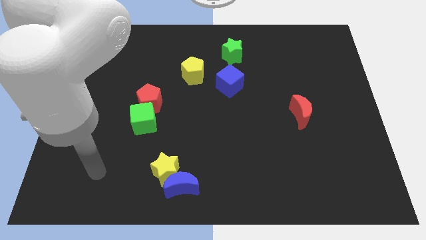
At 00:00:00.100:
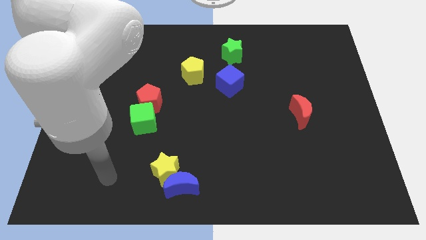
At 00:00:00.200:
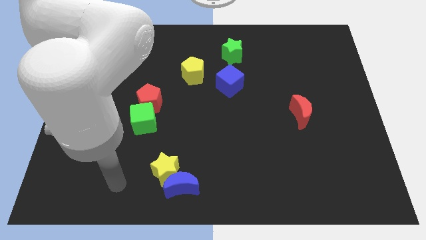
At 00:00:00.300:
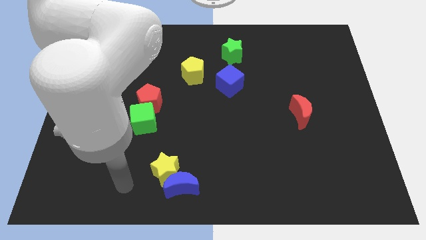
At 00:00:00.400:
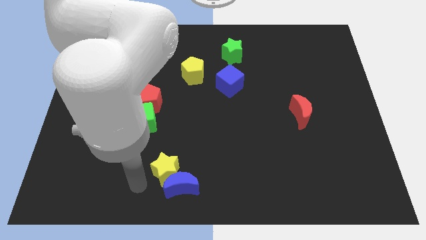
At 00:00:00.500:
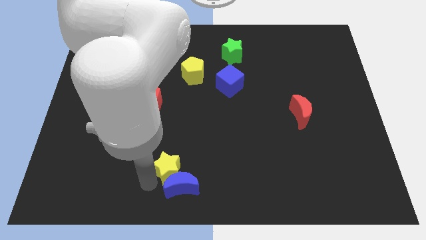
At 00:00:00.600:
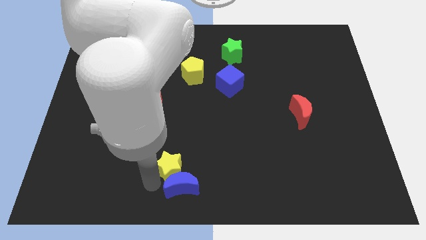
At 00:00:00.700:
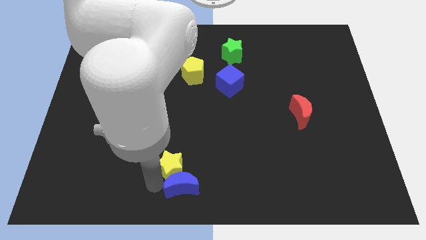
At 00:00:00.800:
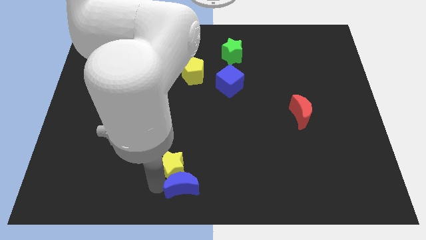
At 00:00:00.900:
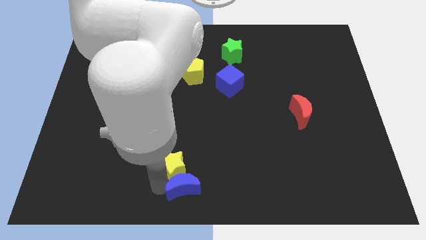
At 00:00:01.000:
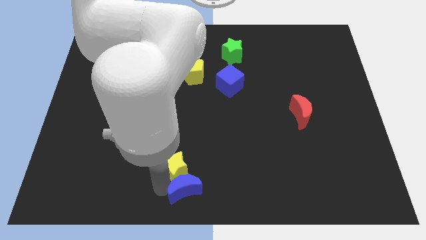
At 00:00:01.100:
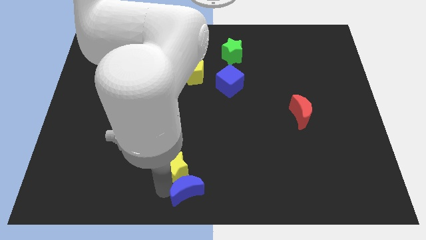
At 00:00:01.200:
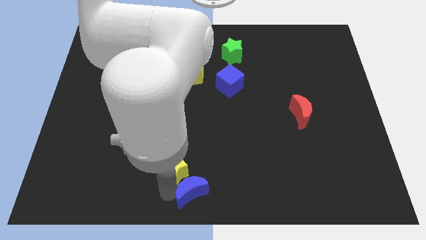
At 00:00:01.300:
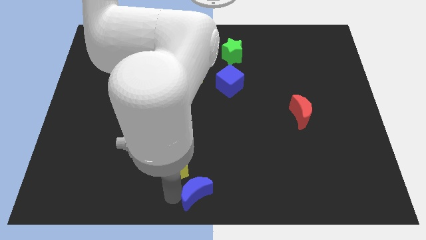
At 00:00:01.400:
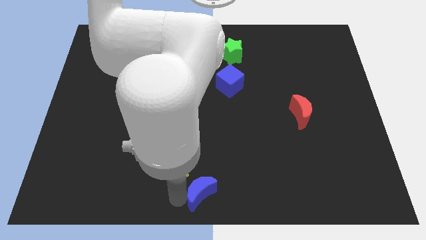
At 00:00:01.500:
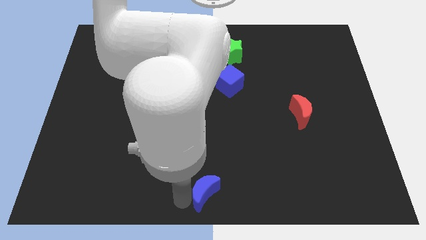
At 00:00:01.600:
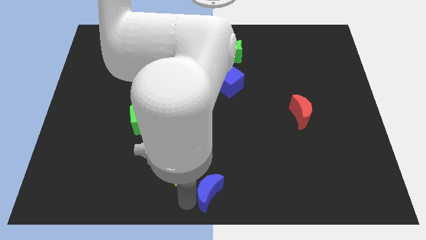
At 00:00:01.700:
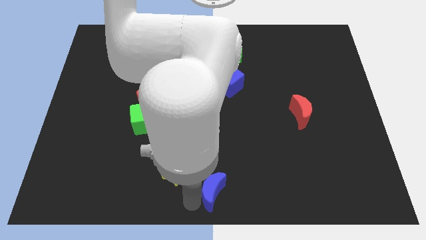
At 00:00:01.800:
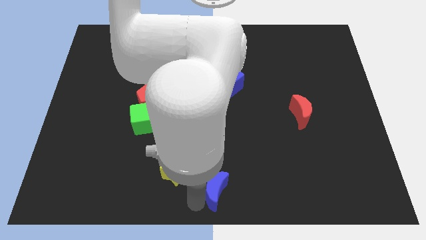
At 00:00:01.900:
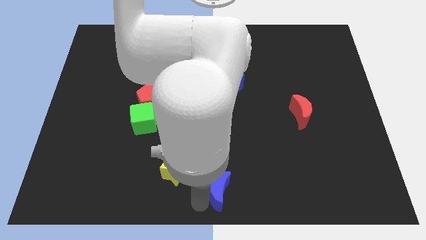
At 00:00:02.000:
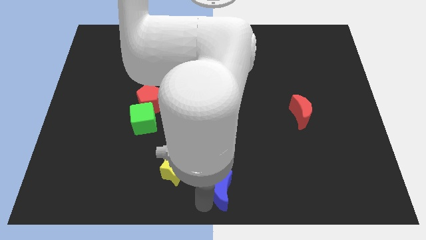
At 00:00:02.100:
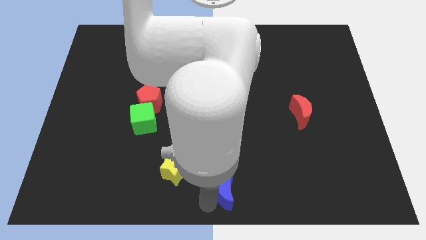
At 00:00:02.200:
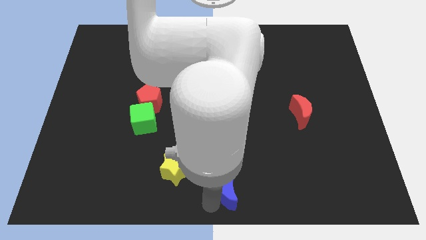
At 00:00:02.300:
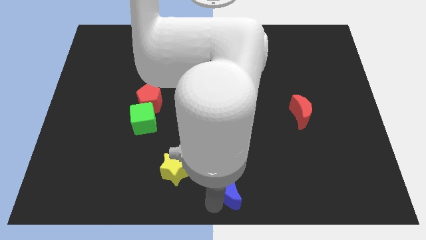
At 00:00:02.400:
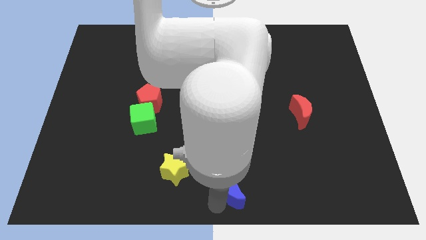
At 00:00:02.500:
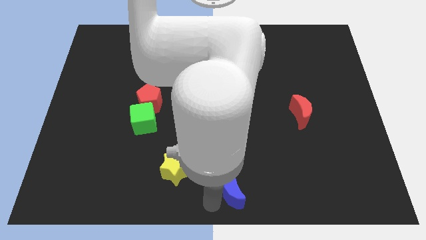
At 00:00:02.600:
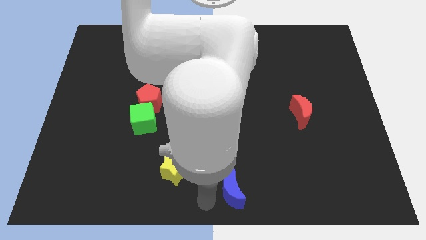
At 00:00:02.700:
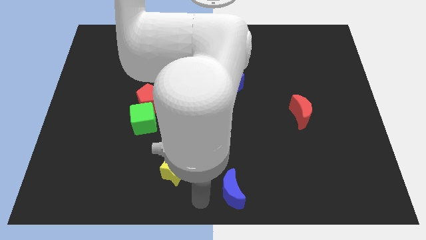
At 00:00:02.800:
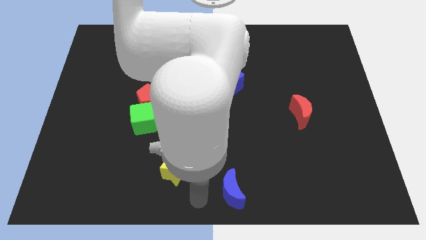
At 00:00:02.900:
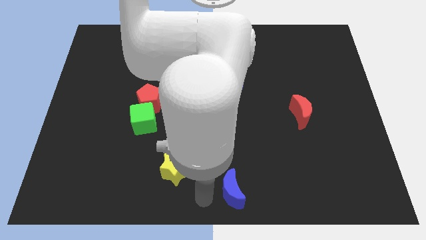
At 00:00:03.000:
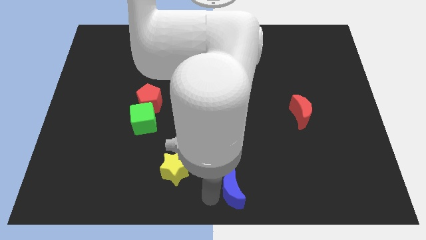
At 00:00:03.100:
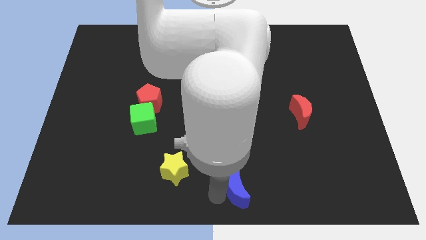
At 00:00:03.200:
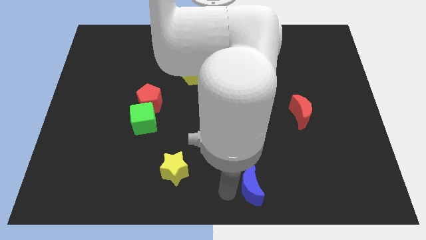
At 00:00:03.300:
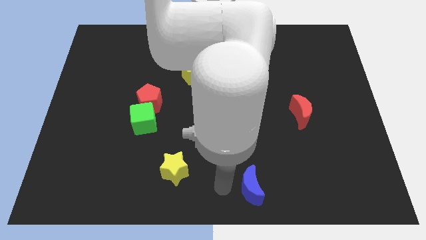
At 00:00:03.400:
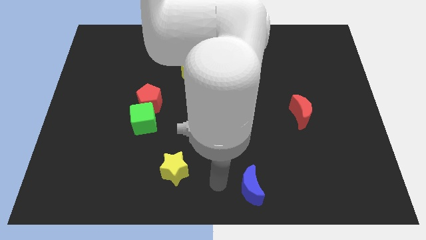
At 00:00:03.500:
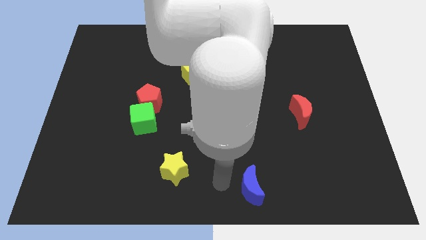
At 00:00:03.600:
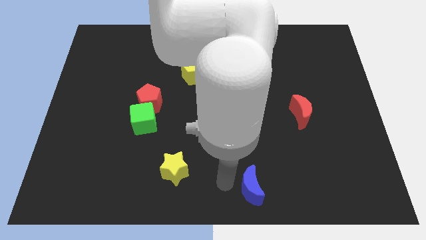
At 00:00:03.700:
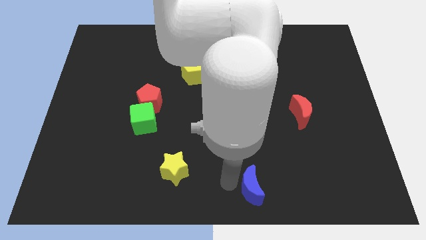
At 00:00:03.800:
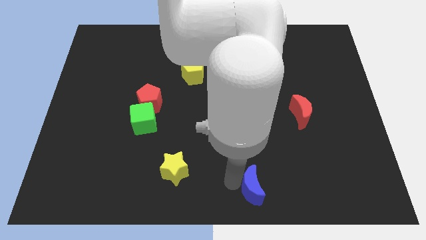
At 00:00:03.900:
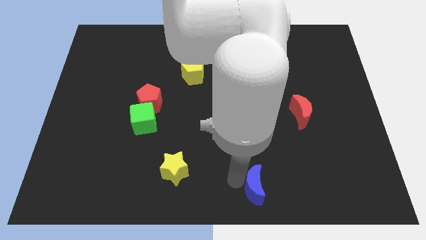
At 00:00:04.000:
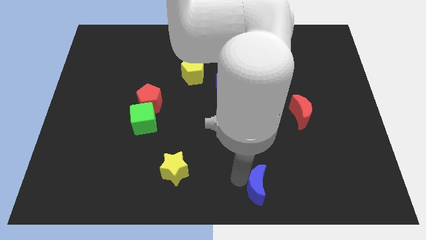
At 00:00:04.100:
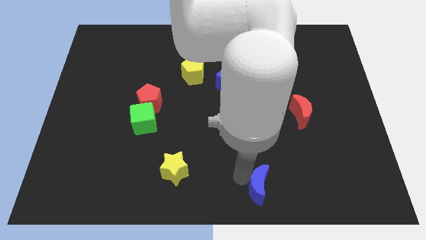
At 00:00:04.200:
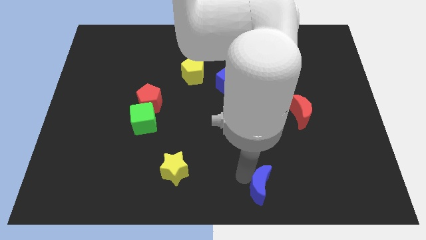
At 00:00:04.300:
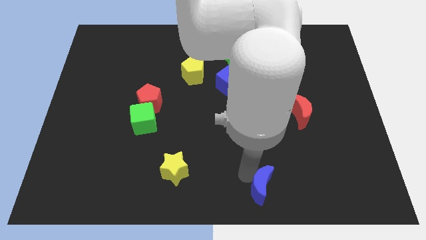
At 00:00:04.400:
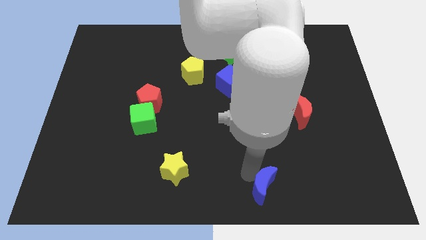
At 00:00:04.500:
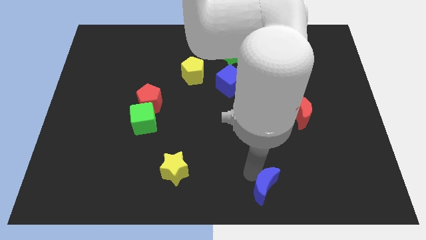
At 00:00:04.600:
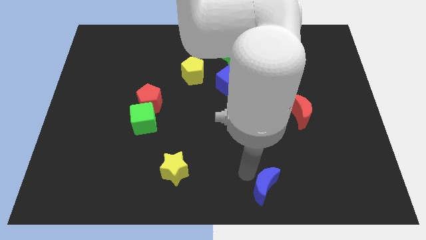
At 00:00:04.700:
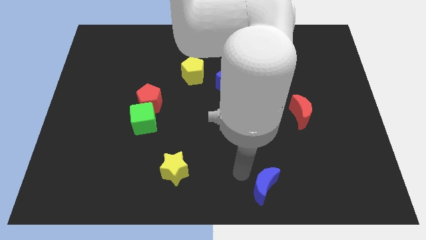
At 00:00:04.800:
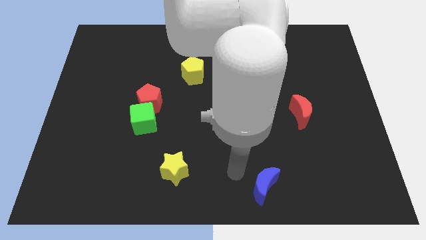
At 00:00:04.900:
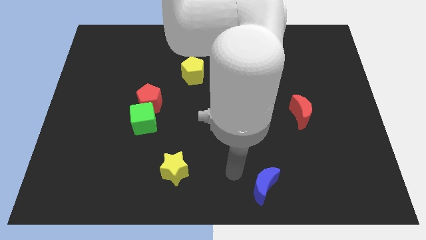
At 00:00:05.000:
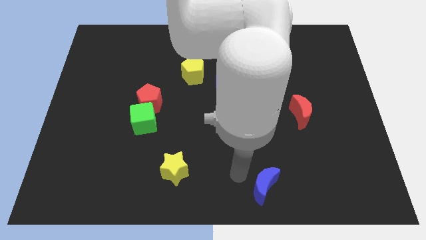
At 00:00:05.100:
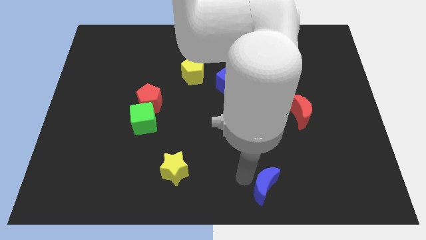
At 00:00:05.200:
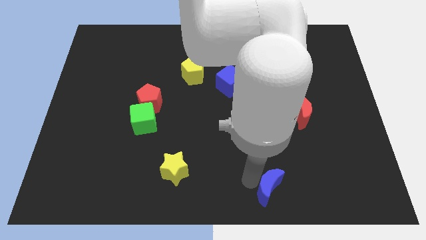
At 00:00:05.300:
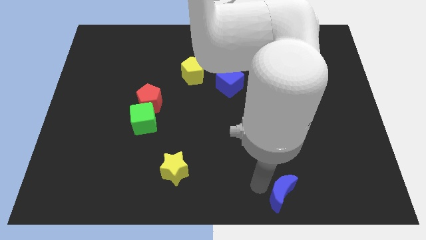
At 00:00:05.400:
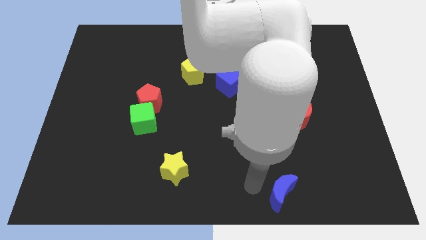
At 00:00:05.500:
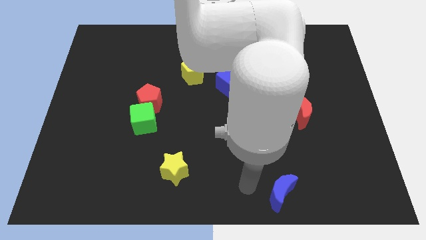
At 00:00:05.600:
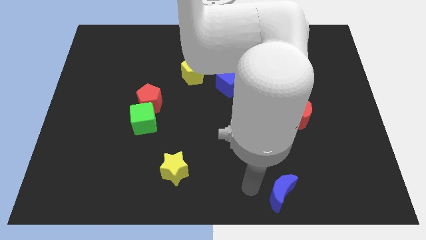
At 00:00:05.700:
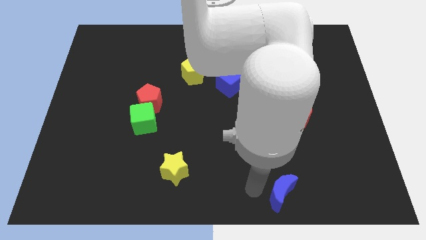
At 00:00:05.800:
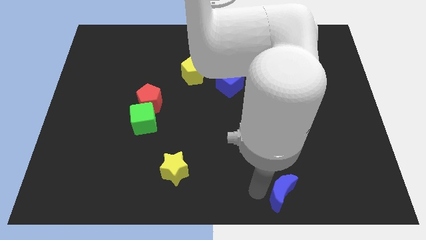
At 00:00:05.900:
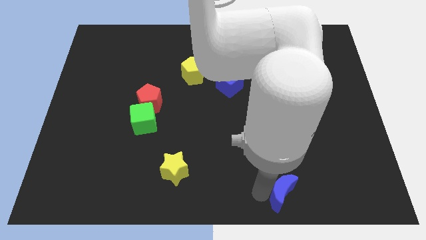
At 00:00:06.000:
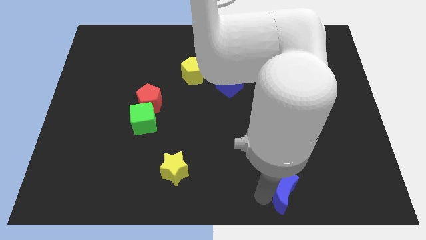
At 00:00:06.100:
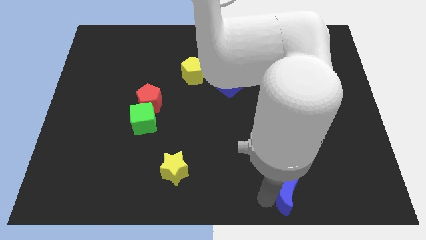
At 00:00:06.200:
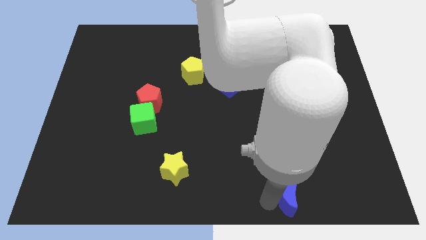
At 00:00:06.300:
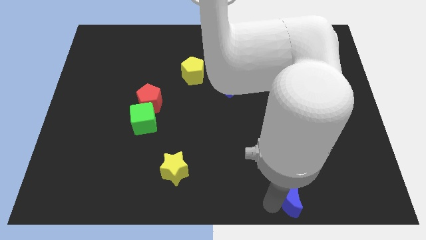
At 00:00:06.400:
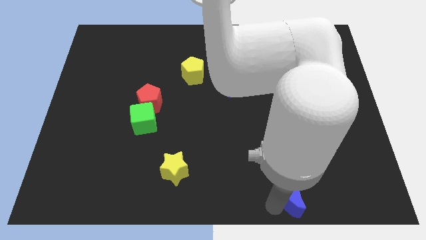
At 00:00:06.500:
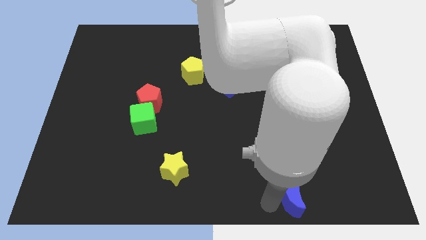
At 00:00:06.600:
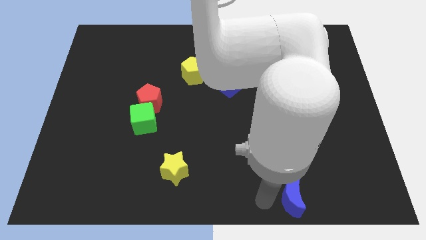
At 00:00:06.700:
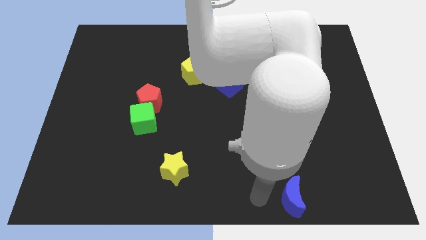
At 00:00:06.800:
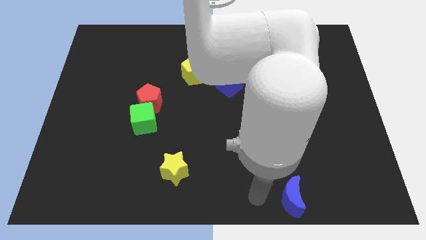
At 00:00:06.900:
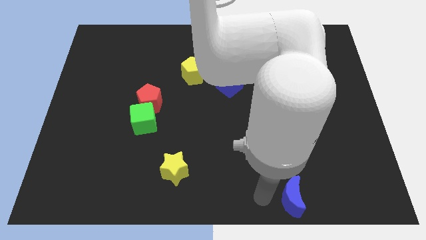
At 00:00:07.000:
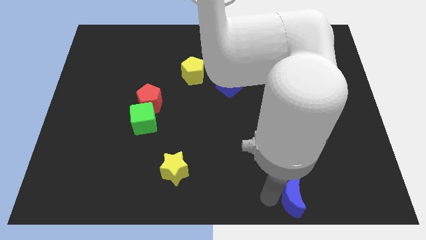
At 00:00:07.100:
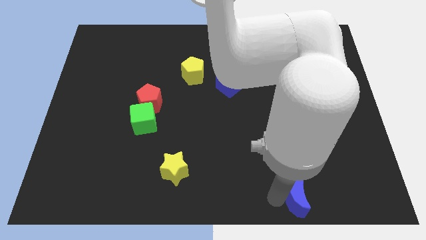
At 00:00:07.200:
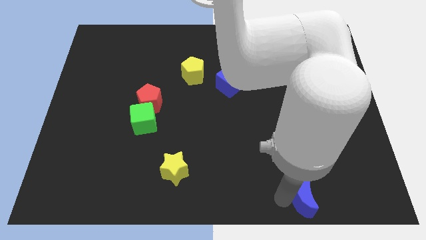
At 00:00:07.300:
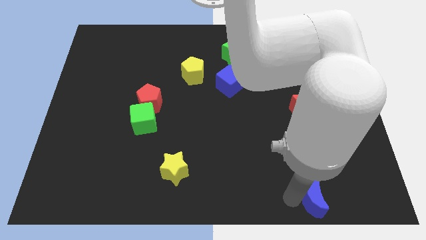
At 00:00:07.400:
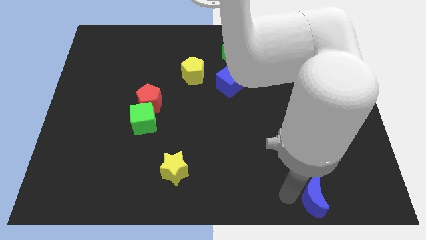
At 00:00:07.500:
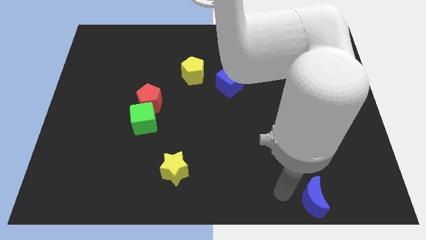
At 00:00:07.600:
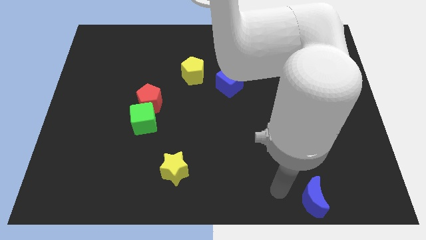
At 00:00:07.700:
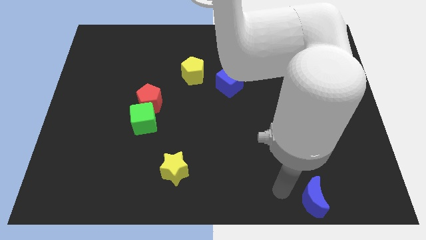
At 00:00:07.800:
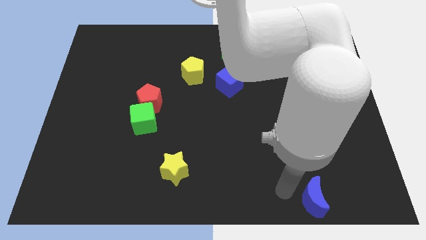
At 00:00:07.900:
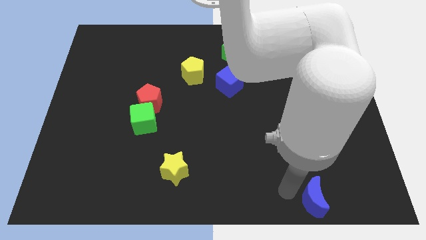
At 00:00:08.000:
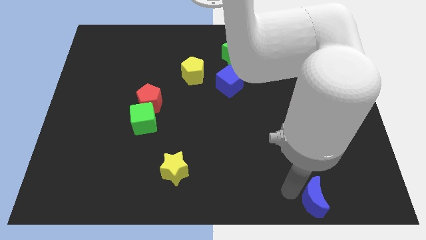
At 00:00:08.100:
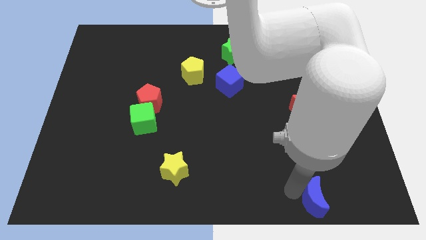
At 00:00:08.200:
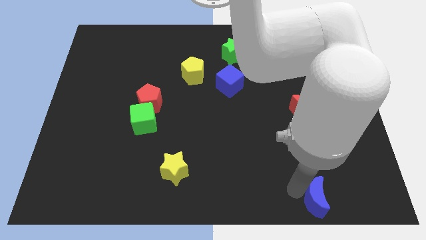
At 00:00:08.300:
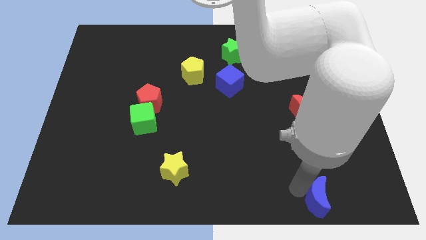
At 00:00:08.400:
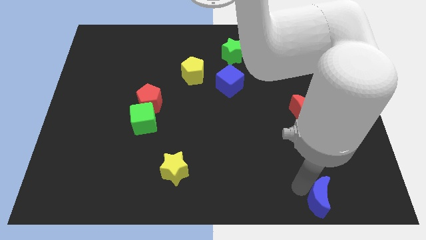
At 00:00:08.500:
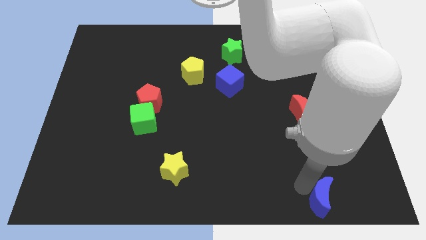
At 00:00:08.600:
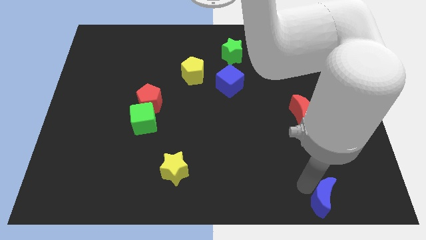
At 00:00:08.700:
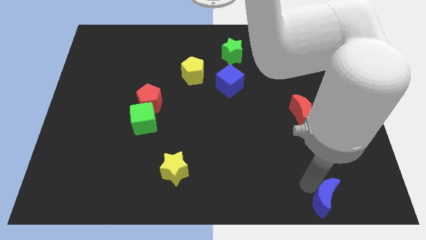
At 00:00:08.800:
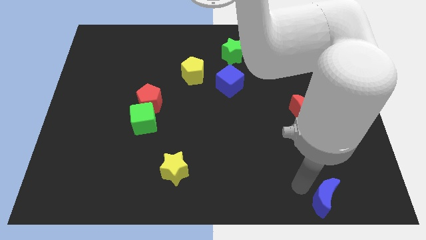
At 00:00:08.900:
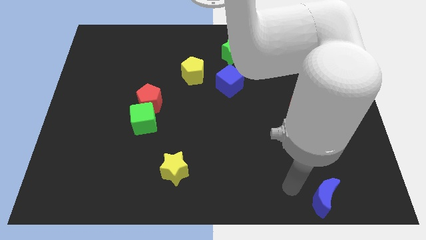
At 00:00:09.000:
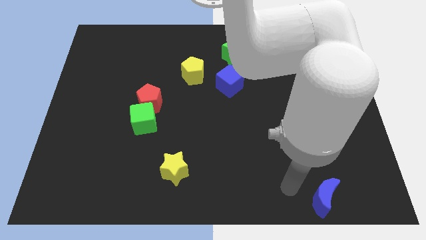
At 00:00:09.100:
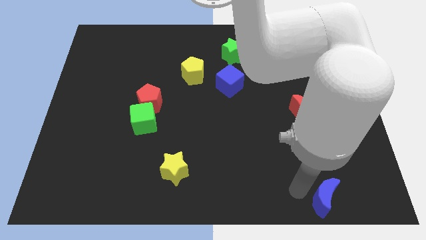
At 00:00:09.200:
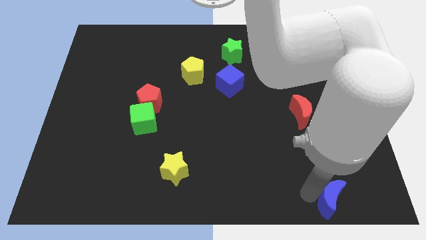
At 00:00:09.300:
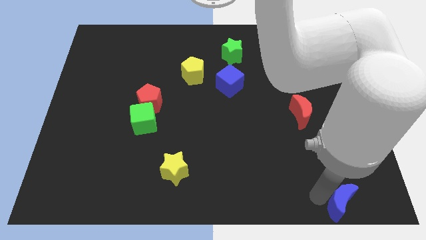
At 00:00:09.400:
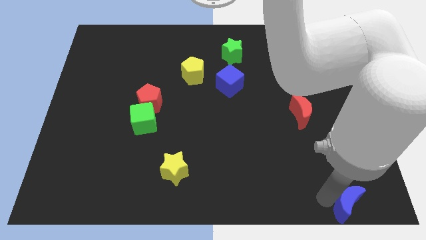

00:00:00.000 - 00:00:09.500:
put the blue moon to the bottom right corner
